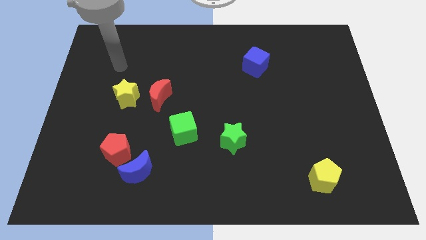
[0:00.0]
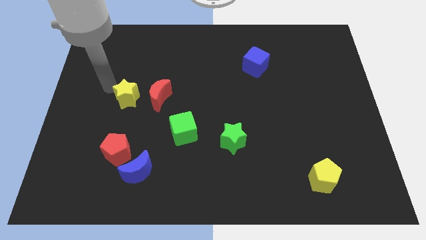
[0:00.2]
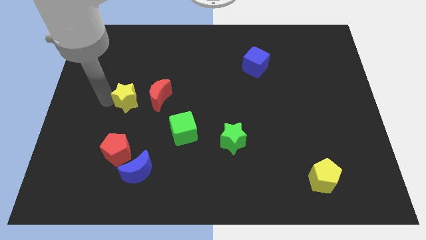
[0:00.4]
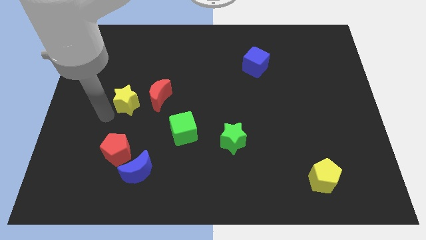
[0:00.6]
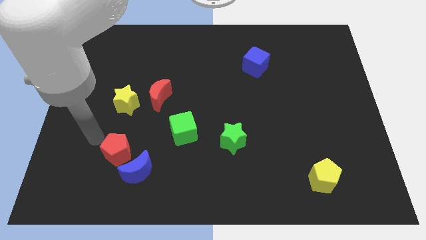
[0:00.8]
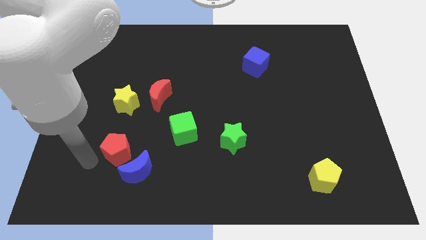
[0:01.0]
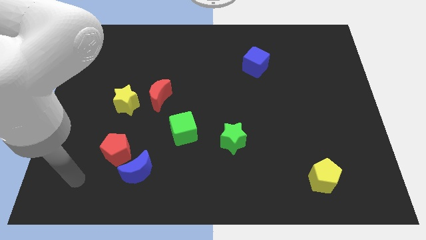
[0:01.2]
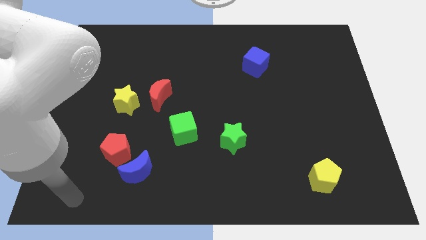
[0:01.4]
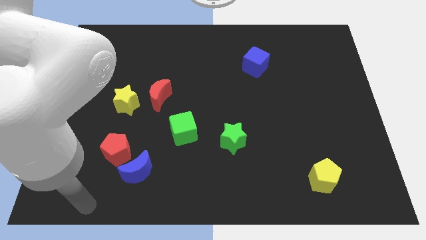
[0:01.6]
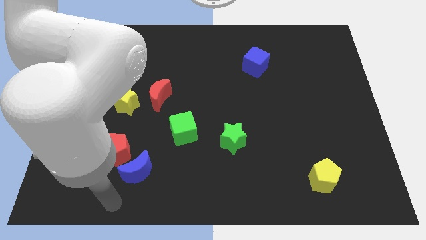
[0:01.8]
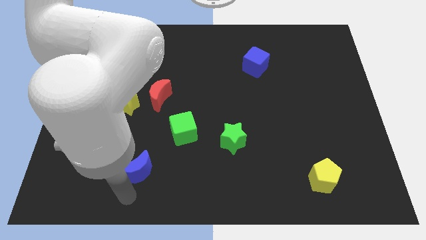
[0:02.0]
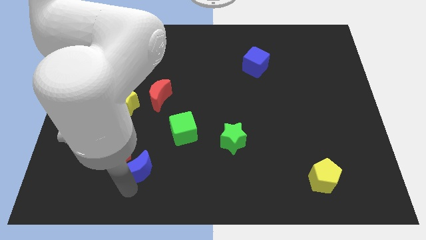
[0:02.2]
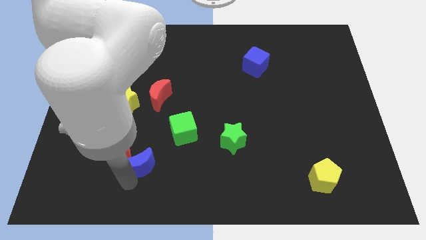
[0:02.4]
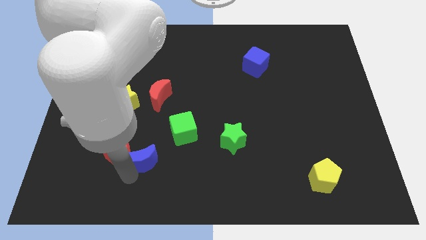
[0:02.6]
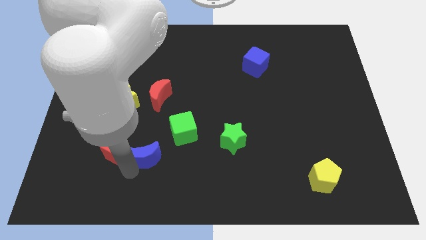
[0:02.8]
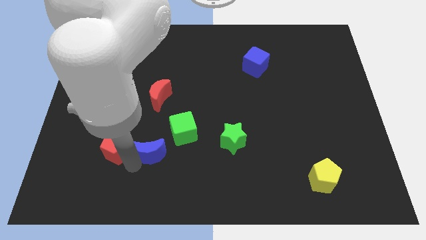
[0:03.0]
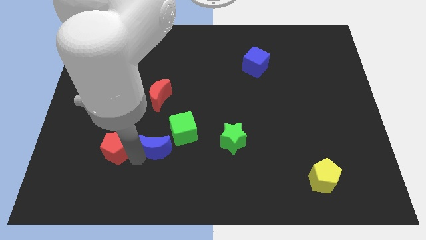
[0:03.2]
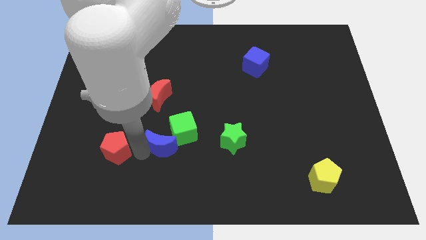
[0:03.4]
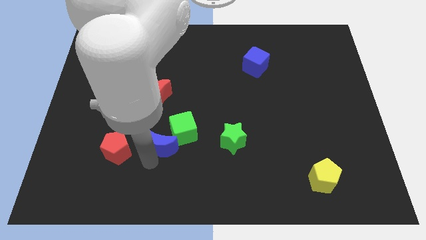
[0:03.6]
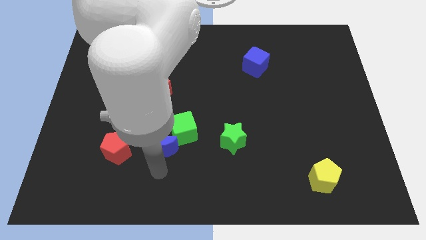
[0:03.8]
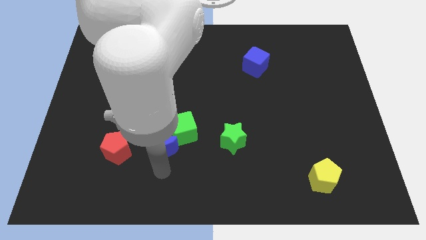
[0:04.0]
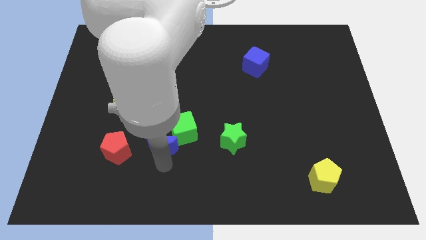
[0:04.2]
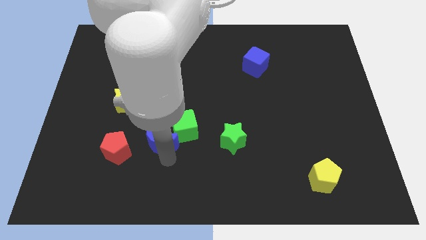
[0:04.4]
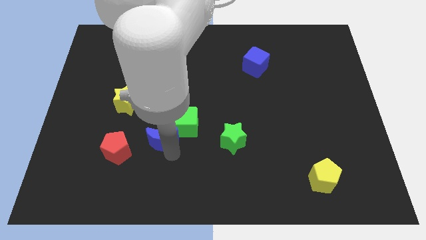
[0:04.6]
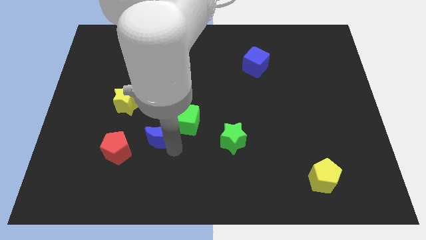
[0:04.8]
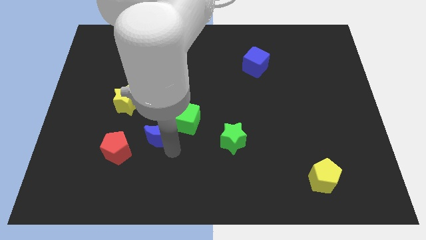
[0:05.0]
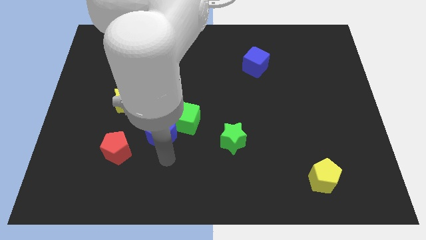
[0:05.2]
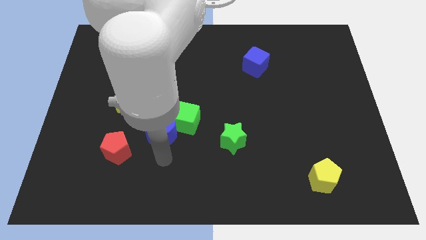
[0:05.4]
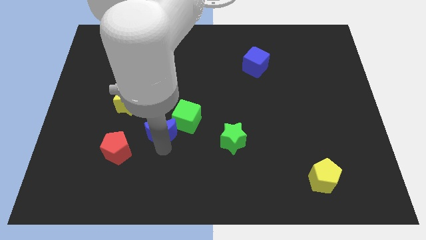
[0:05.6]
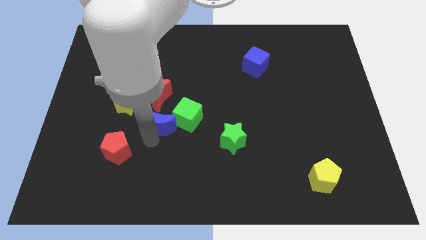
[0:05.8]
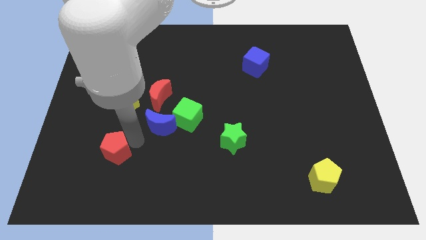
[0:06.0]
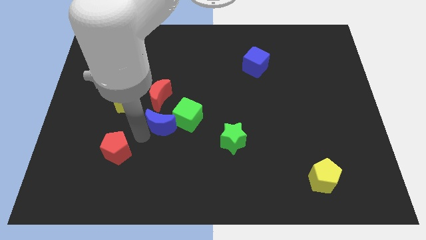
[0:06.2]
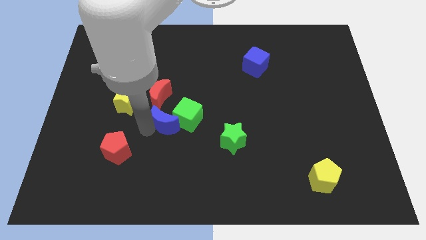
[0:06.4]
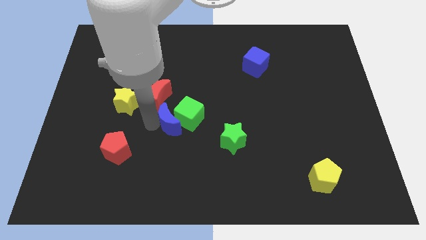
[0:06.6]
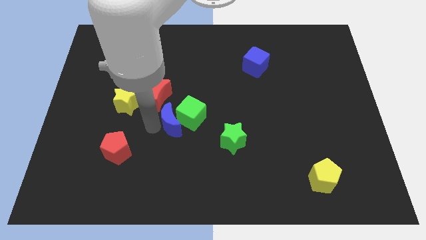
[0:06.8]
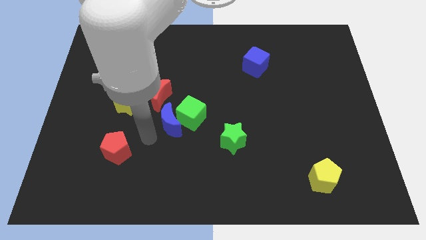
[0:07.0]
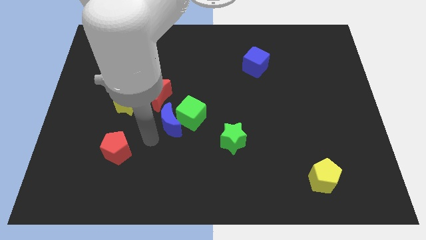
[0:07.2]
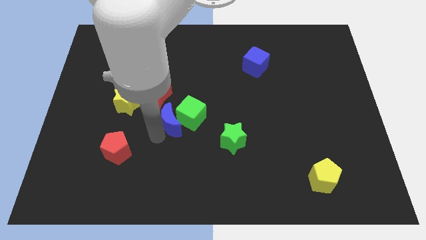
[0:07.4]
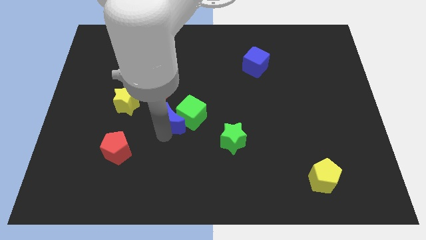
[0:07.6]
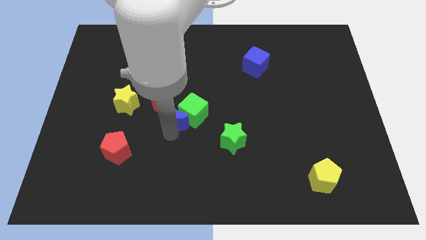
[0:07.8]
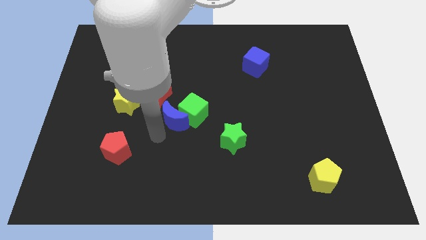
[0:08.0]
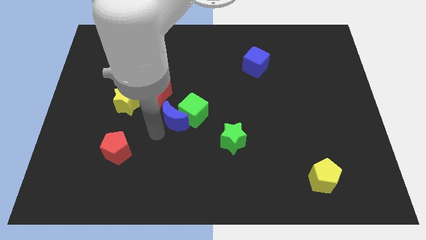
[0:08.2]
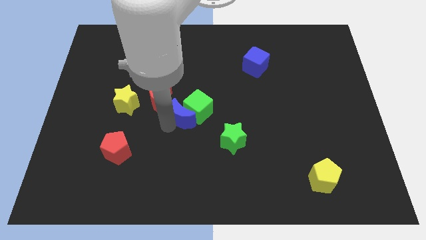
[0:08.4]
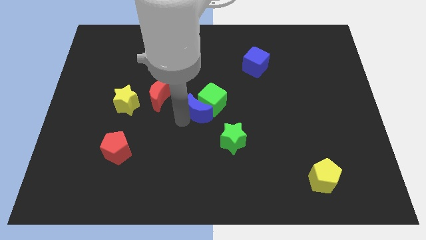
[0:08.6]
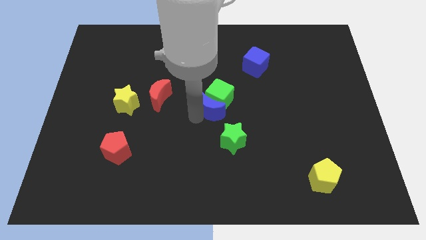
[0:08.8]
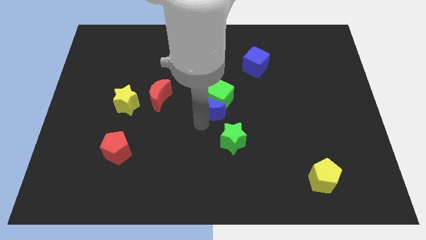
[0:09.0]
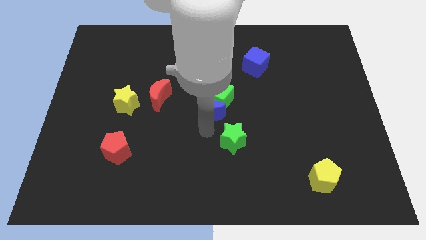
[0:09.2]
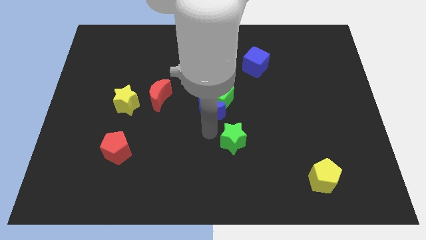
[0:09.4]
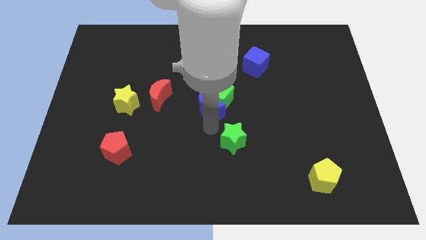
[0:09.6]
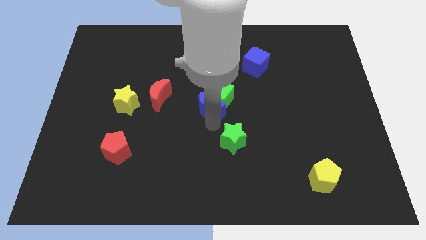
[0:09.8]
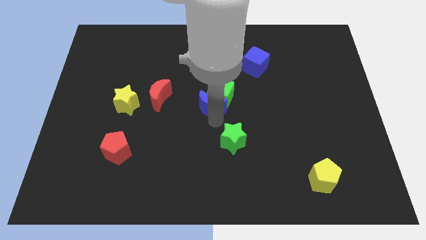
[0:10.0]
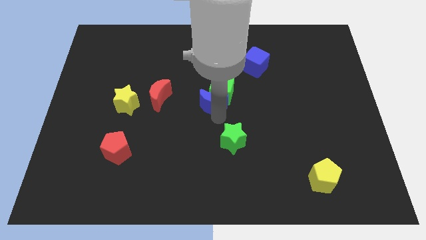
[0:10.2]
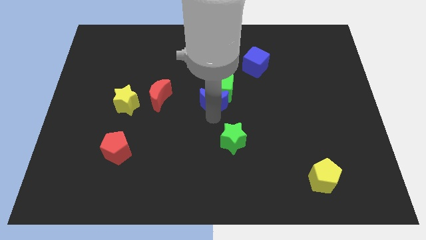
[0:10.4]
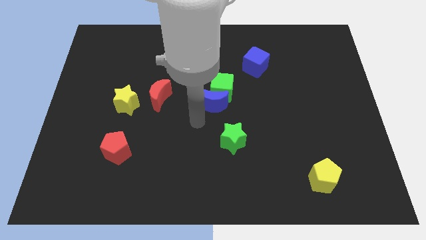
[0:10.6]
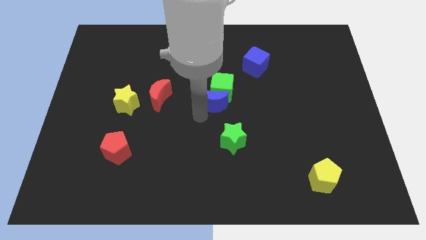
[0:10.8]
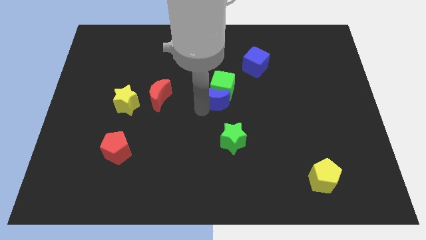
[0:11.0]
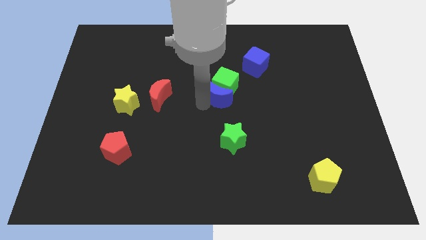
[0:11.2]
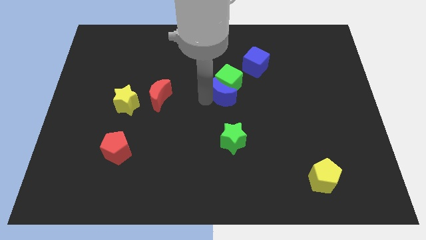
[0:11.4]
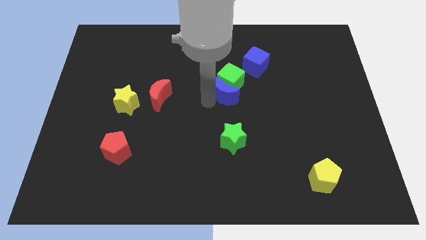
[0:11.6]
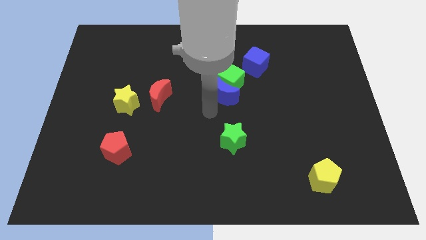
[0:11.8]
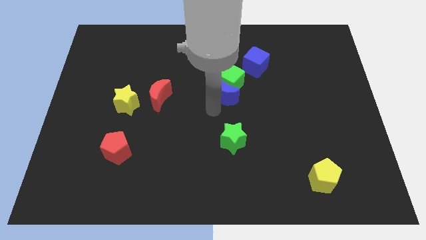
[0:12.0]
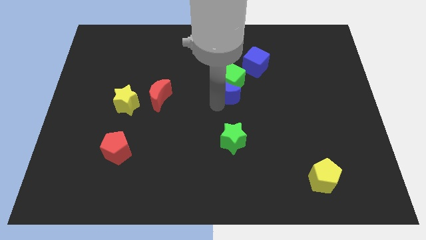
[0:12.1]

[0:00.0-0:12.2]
slide the blue moon to the bottom left side of the blue cube

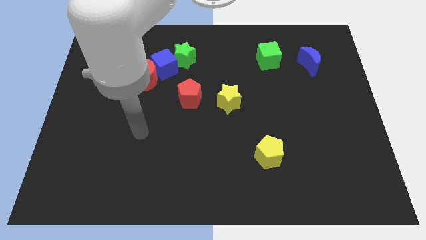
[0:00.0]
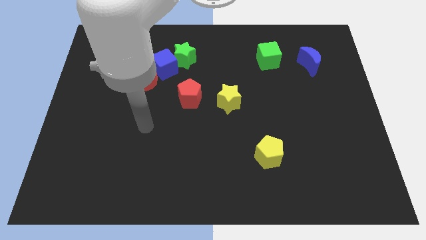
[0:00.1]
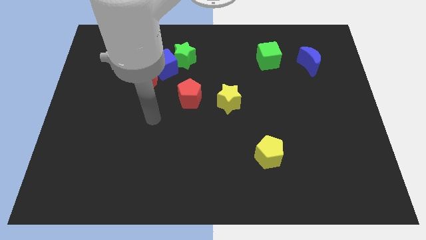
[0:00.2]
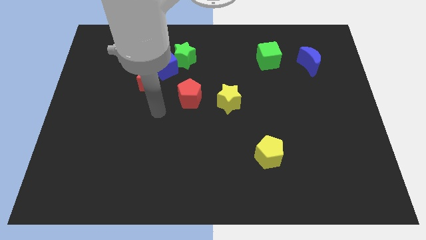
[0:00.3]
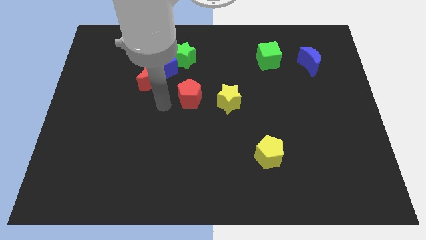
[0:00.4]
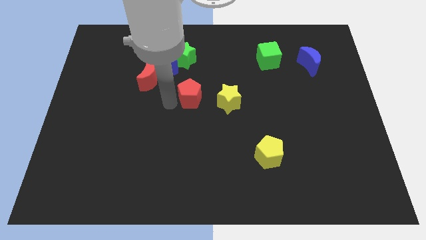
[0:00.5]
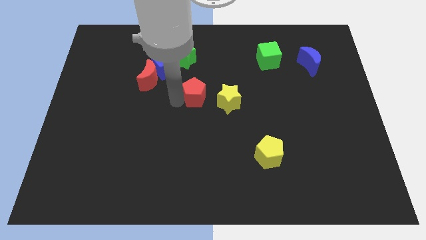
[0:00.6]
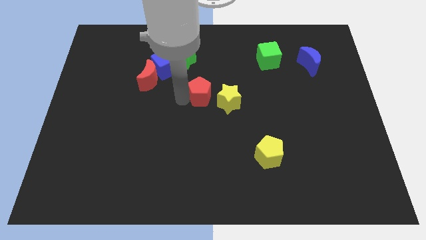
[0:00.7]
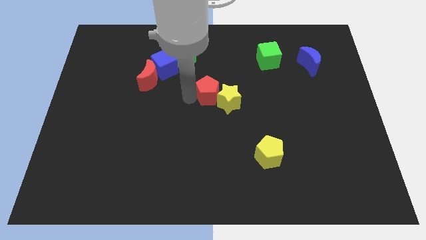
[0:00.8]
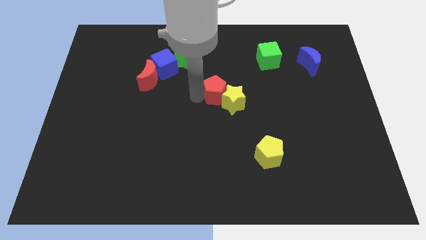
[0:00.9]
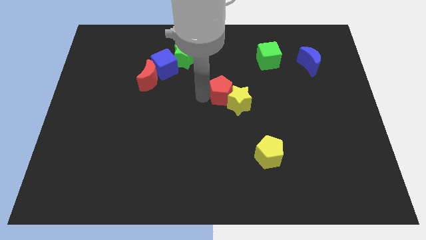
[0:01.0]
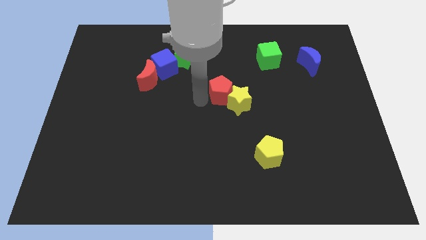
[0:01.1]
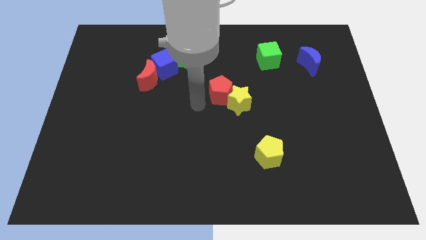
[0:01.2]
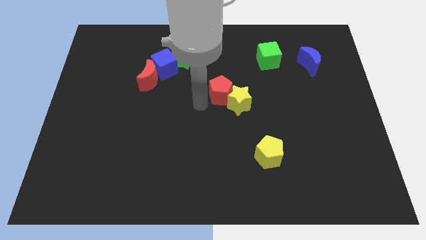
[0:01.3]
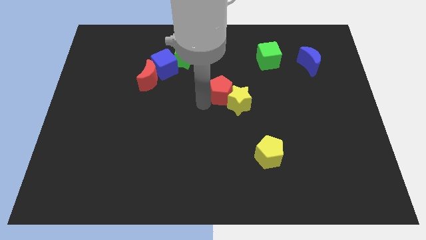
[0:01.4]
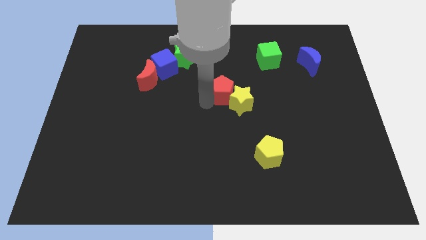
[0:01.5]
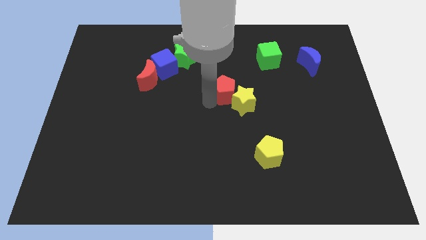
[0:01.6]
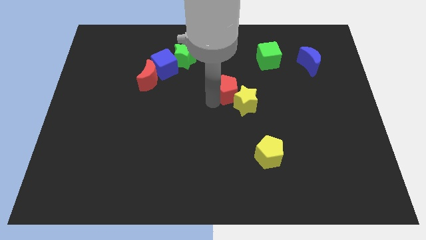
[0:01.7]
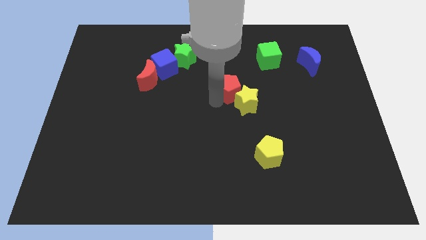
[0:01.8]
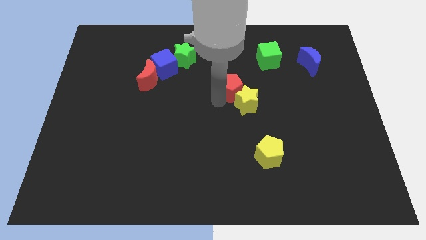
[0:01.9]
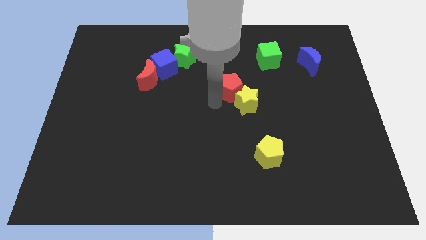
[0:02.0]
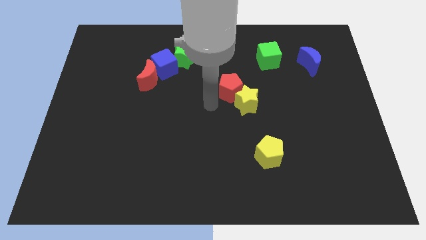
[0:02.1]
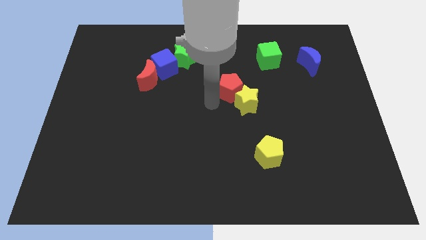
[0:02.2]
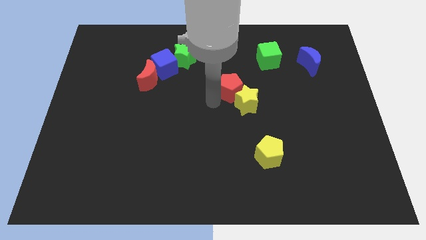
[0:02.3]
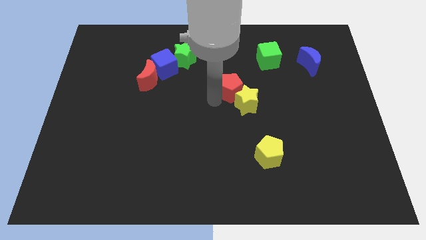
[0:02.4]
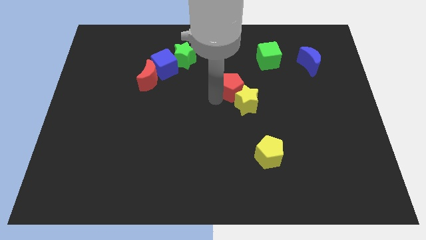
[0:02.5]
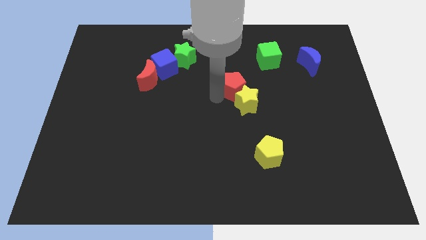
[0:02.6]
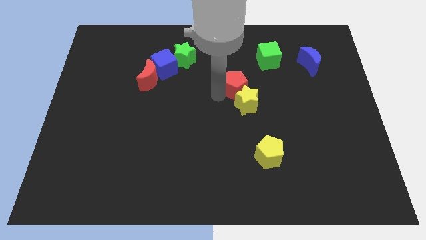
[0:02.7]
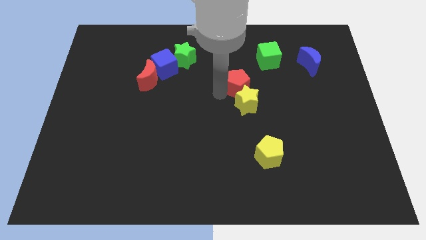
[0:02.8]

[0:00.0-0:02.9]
slide the red pentagon to the bottom left of the green cube
